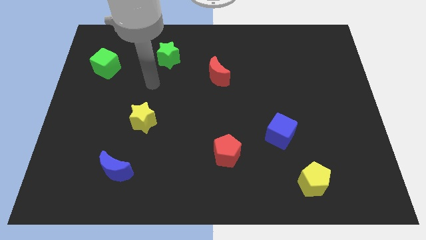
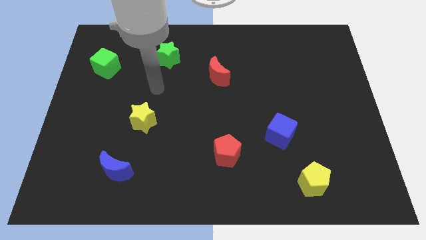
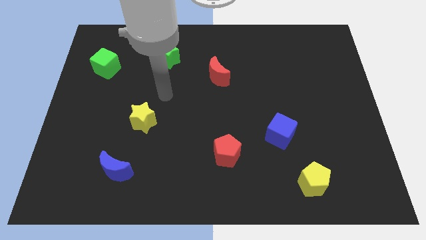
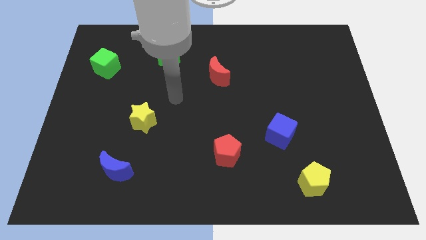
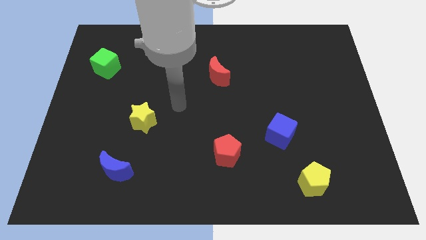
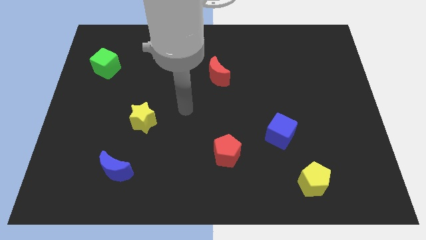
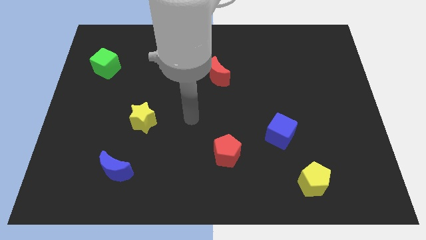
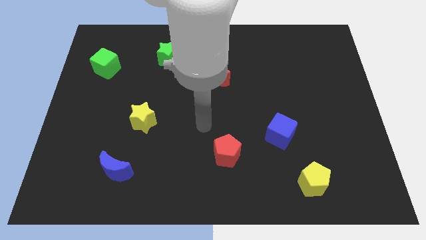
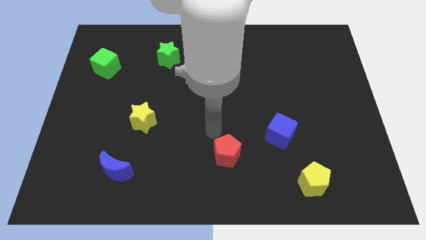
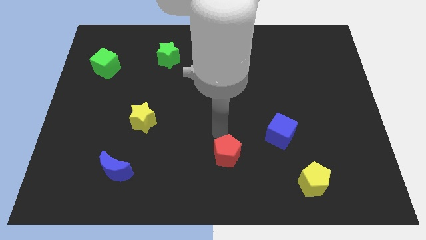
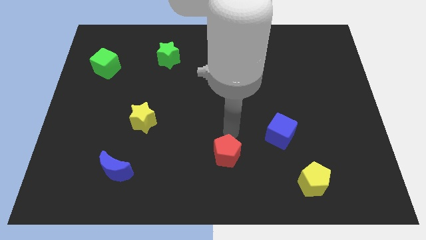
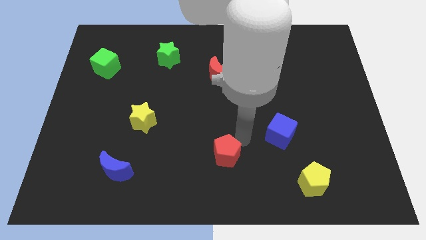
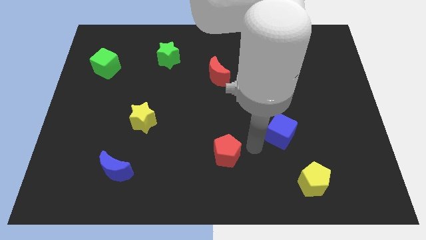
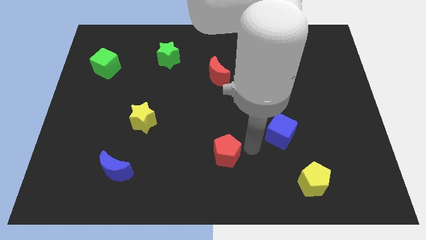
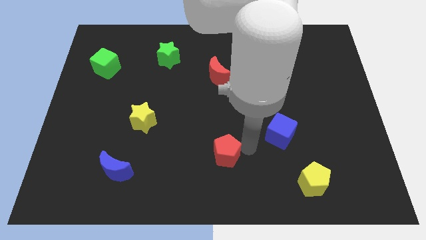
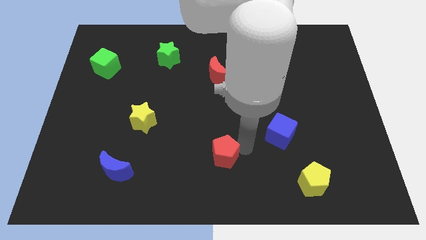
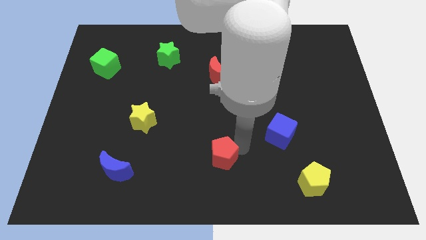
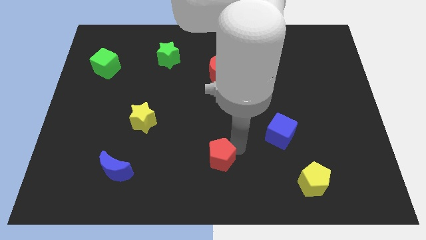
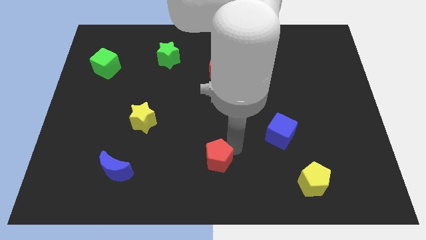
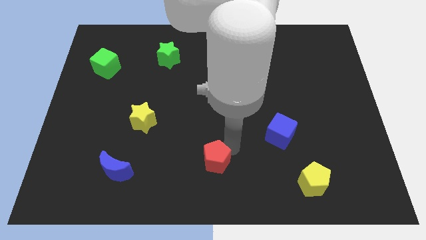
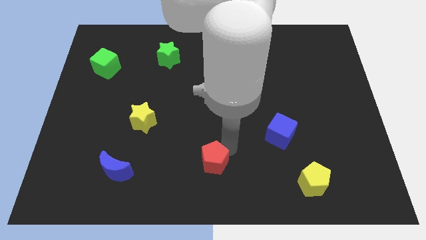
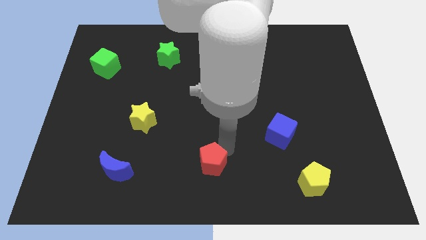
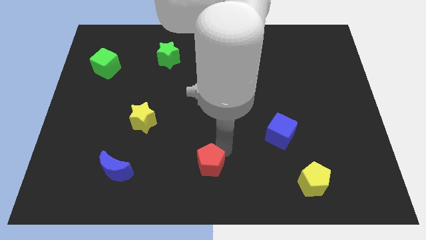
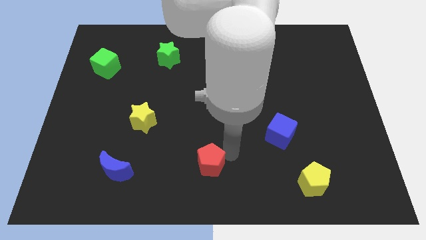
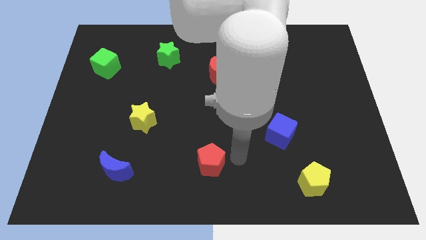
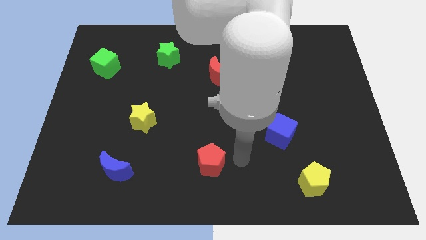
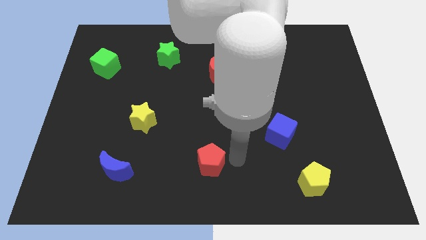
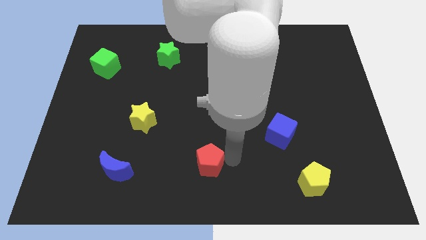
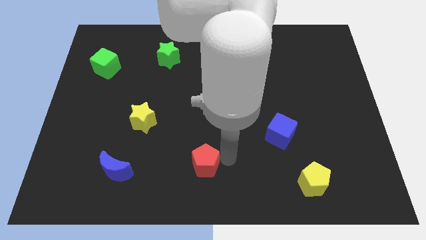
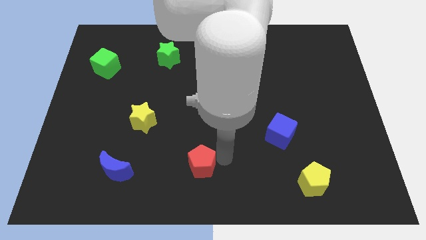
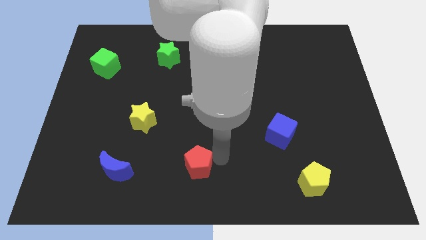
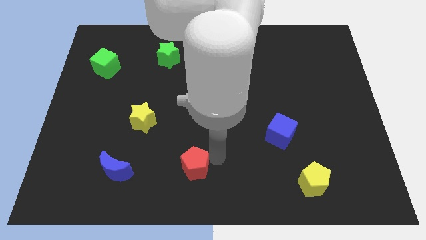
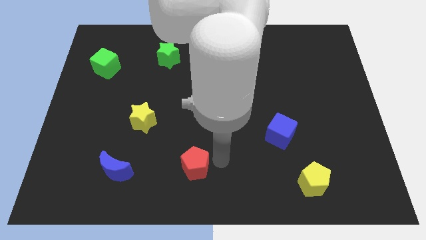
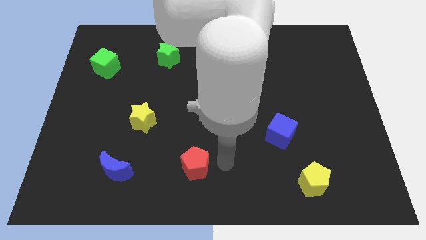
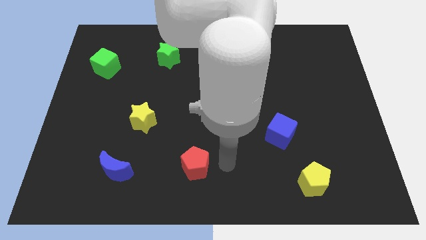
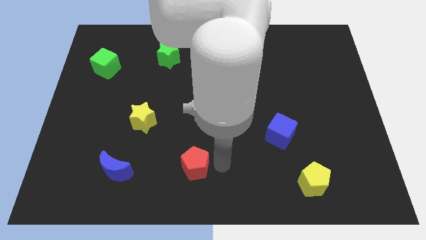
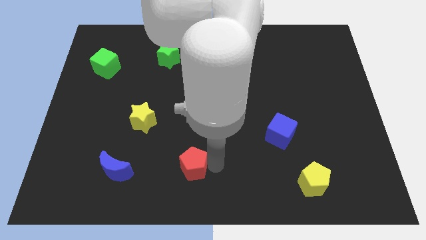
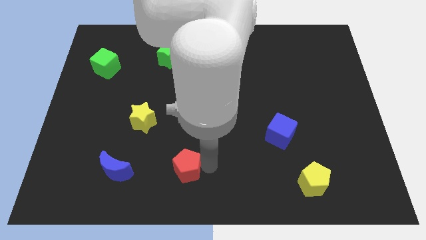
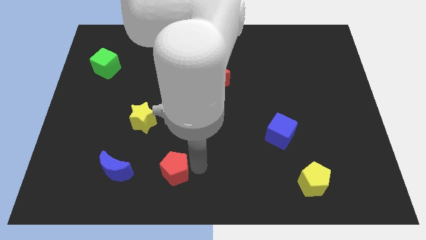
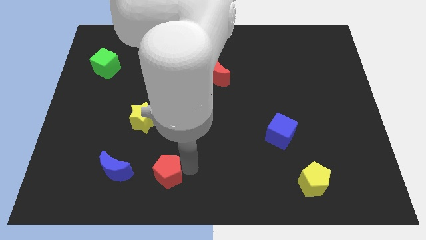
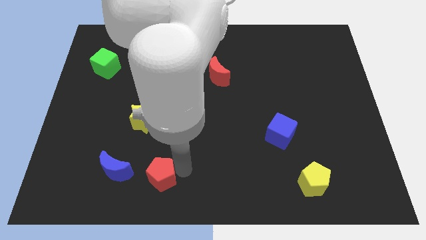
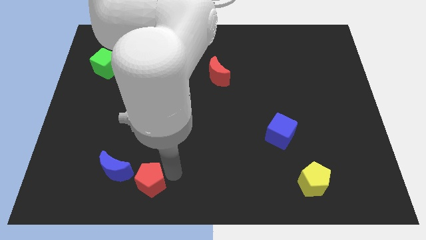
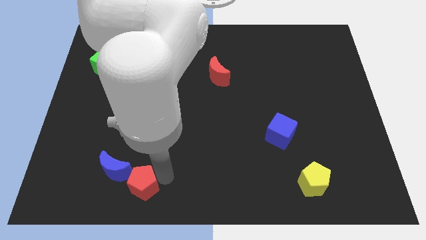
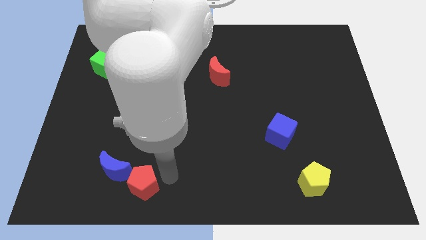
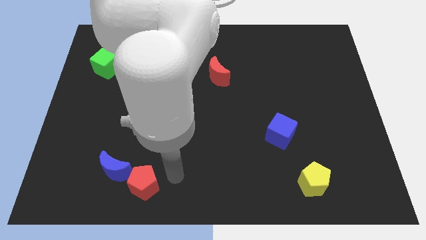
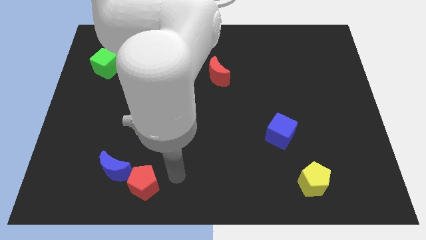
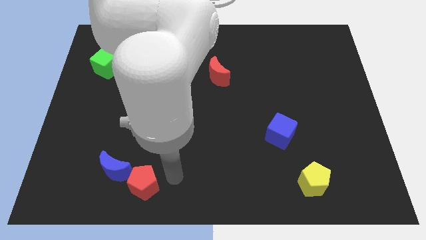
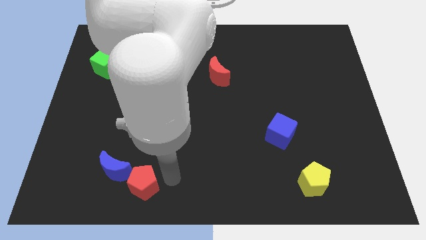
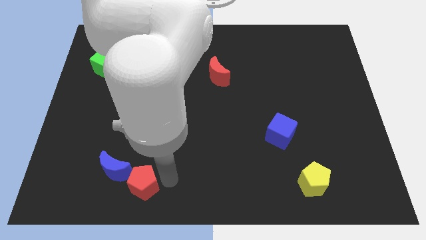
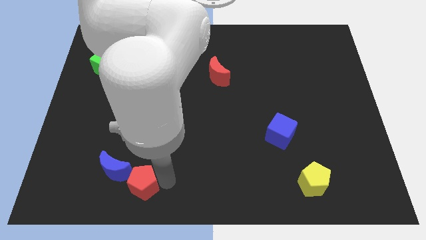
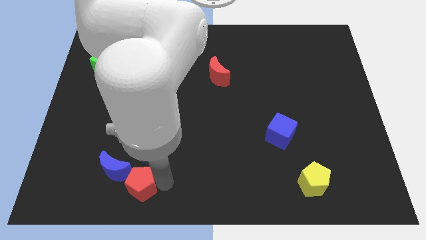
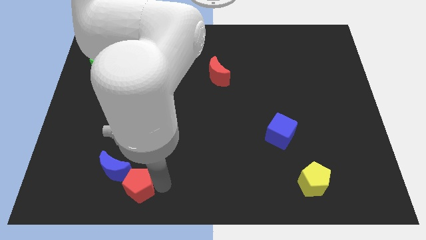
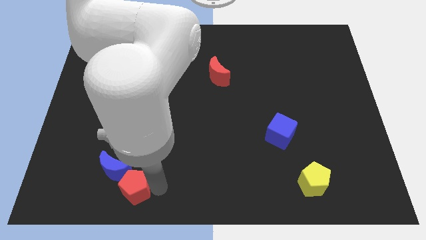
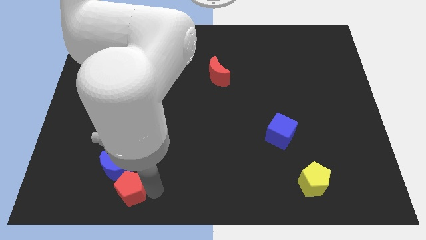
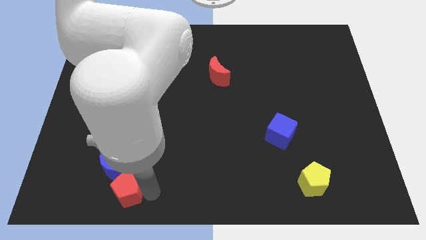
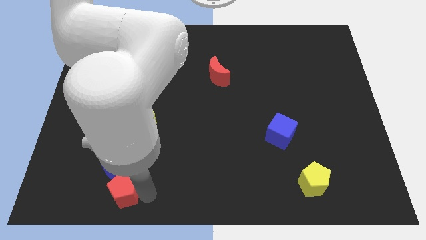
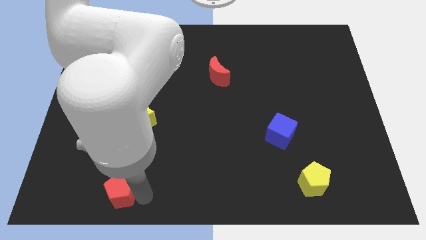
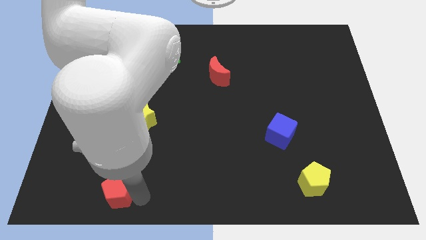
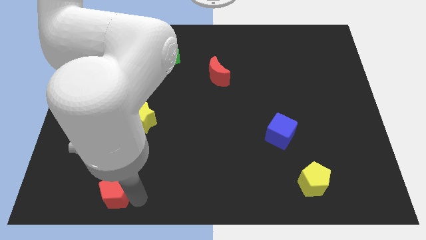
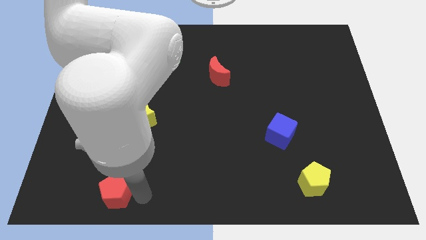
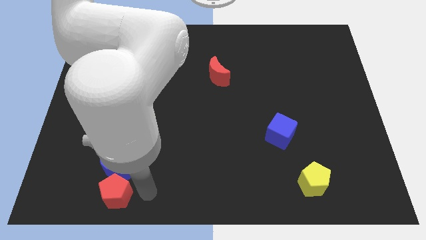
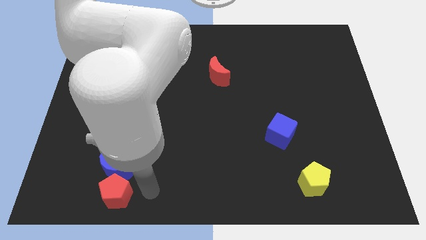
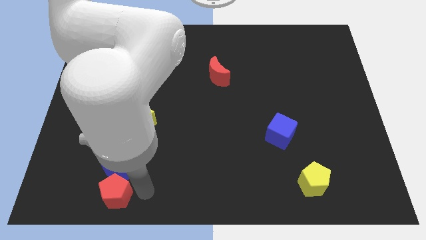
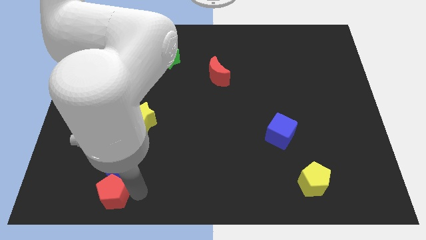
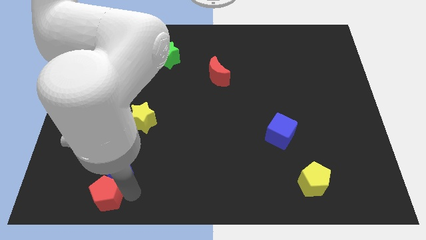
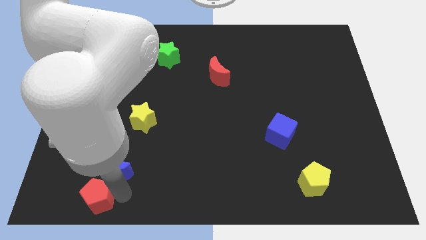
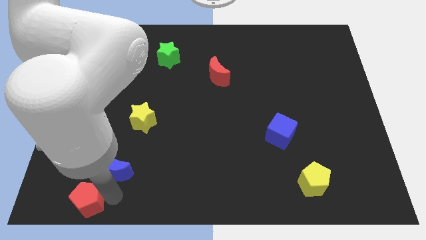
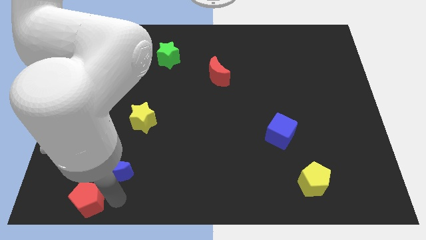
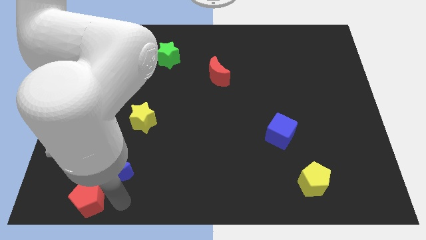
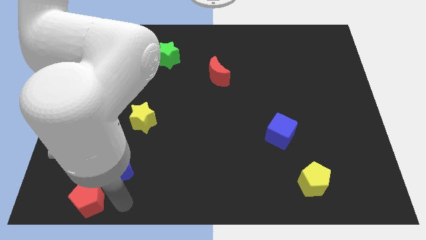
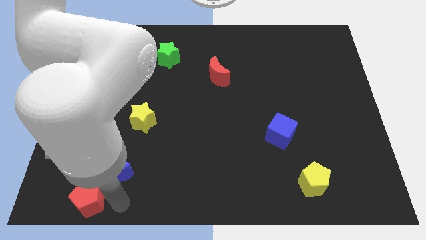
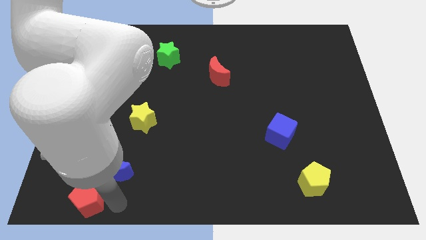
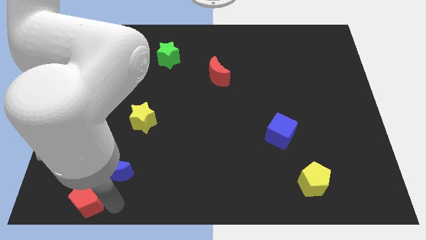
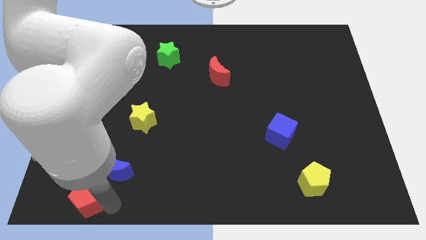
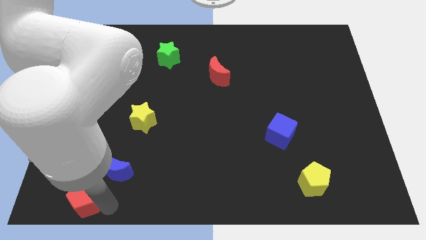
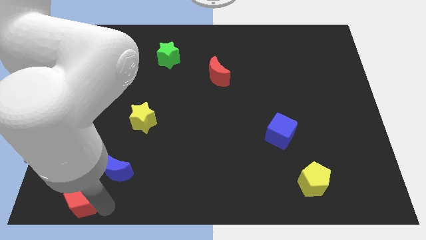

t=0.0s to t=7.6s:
move the red pentagon to the bottom left corner

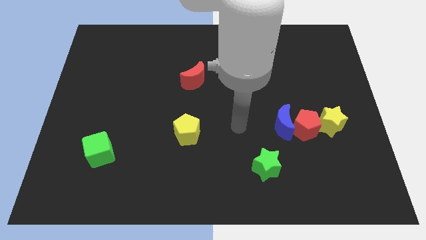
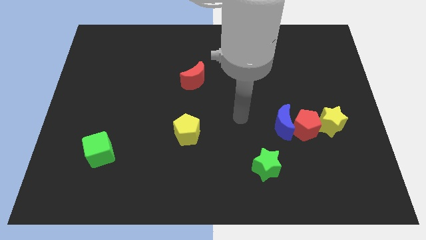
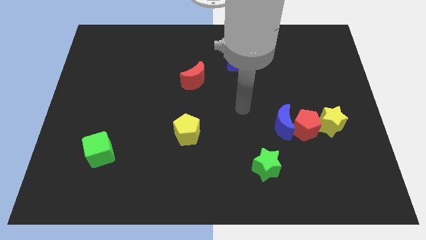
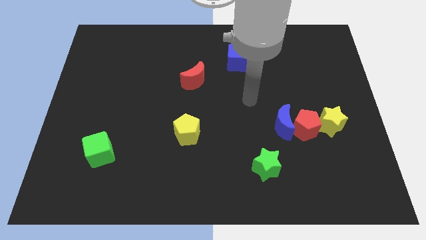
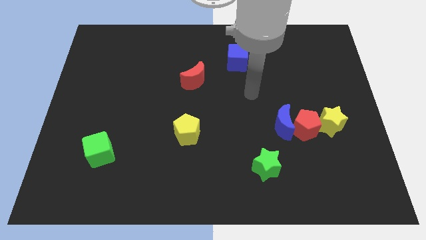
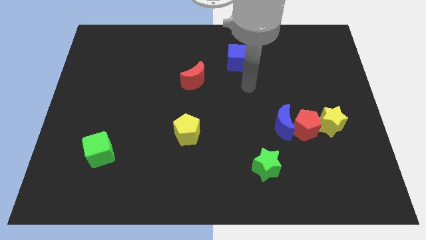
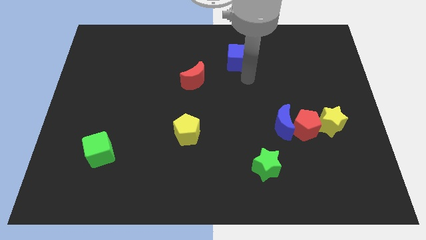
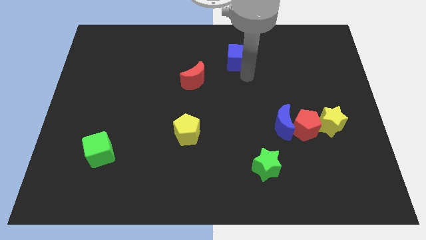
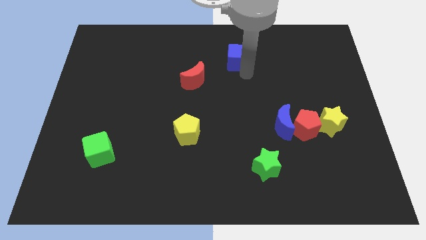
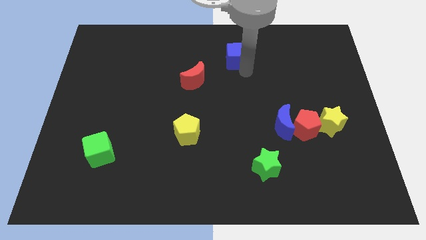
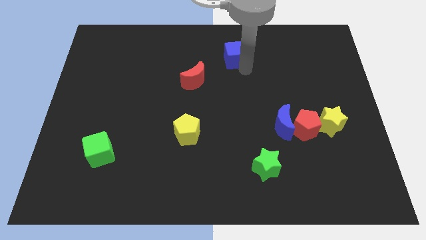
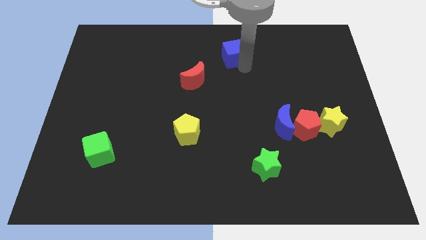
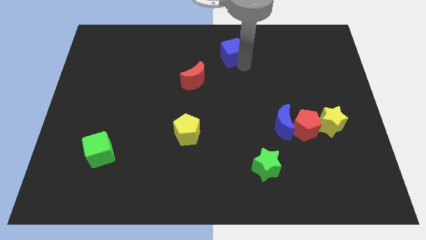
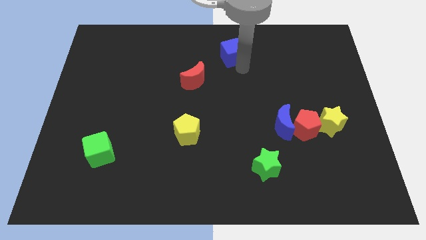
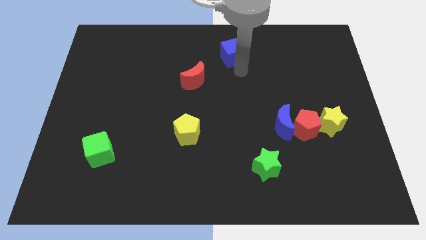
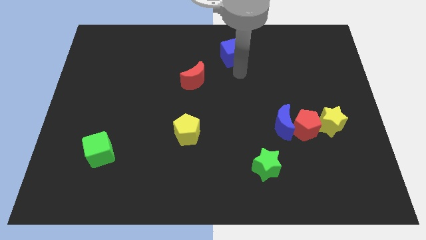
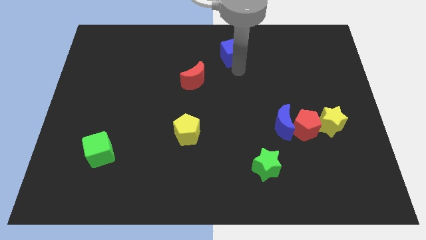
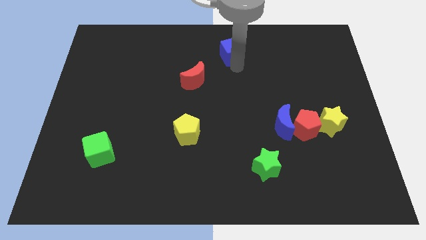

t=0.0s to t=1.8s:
move the blue cube to the top side
